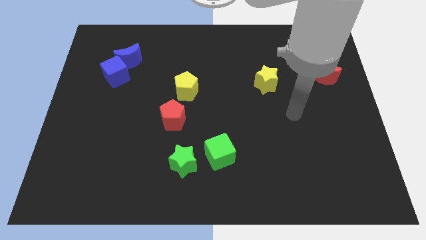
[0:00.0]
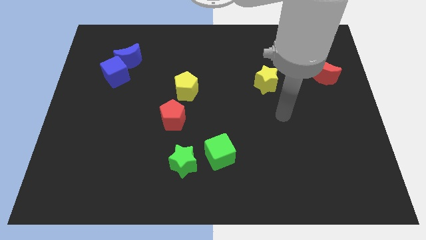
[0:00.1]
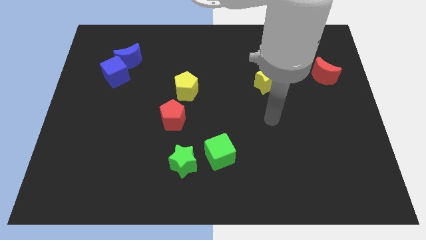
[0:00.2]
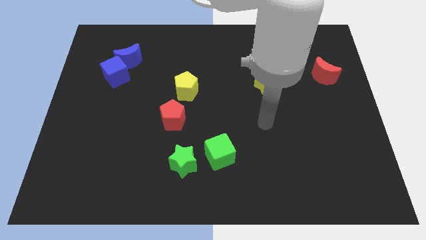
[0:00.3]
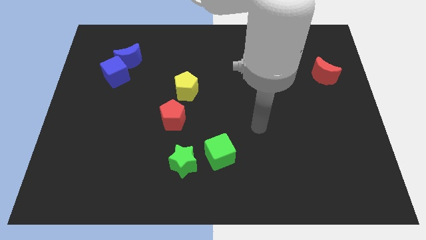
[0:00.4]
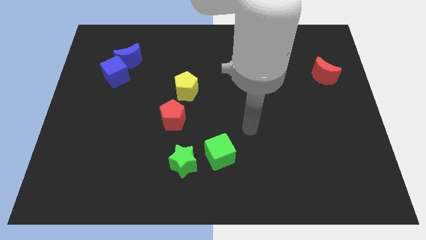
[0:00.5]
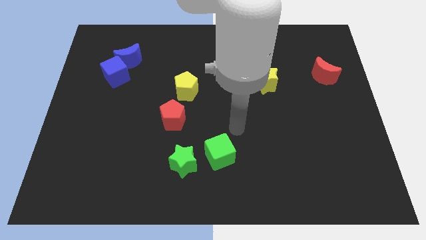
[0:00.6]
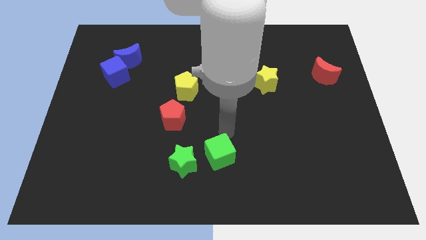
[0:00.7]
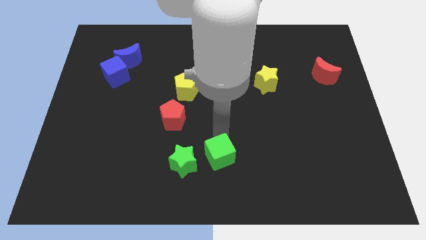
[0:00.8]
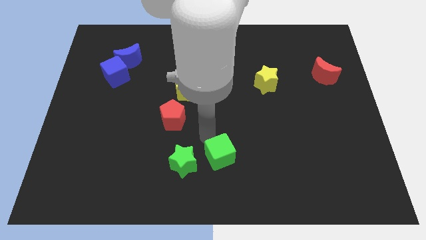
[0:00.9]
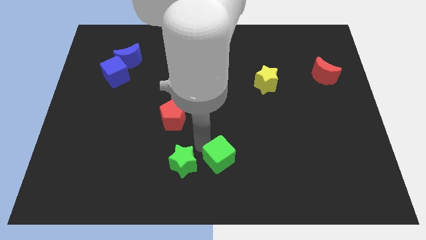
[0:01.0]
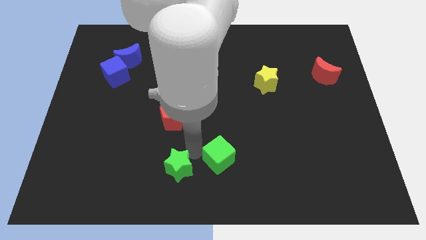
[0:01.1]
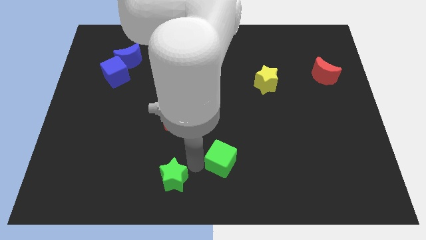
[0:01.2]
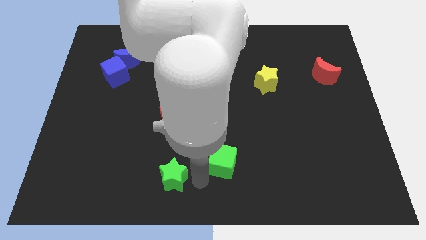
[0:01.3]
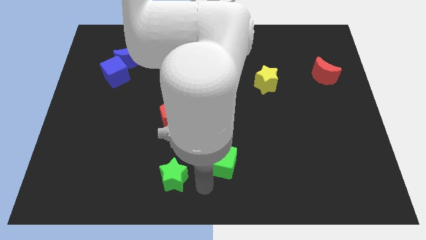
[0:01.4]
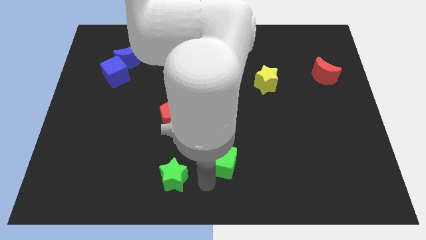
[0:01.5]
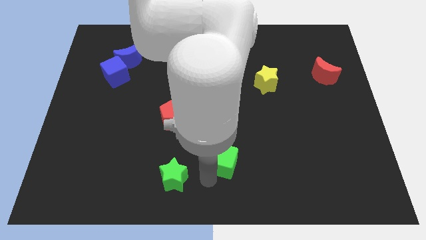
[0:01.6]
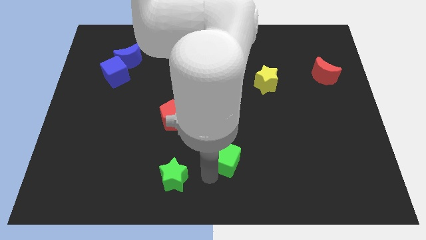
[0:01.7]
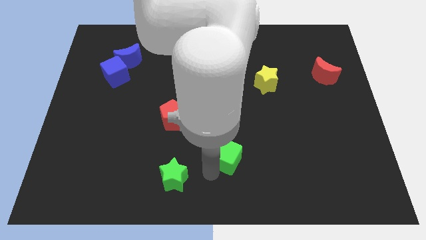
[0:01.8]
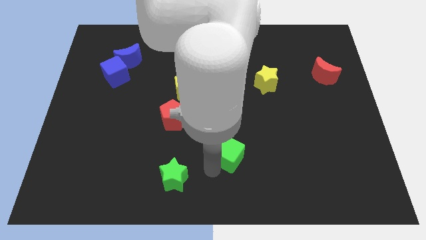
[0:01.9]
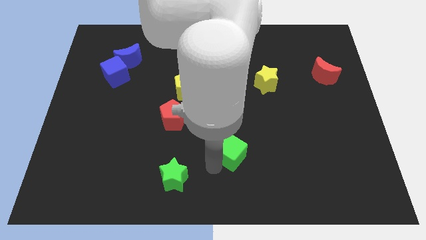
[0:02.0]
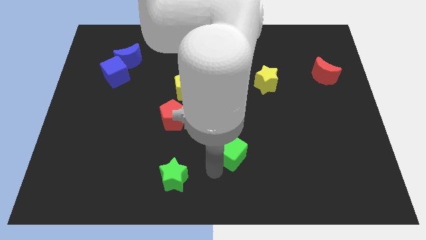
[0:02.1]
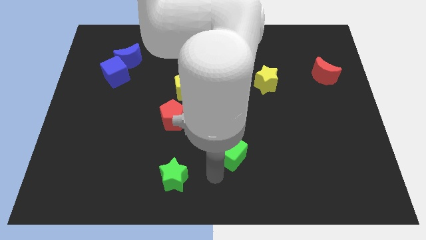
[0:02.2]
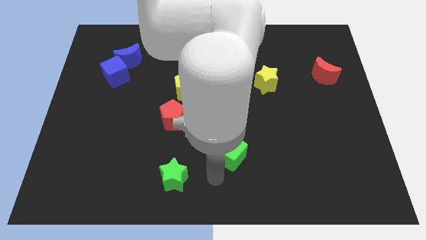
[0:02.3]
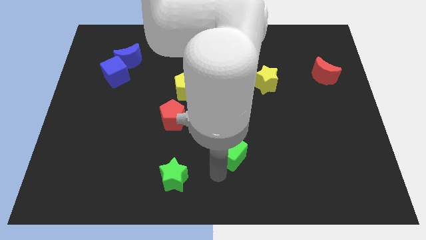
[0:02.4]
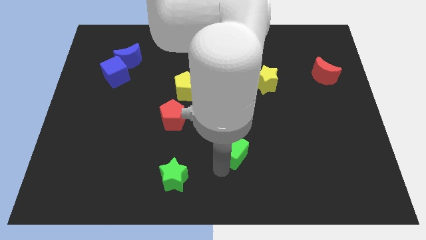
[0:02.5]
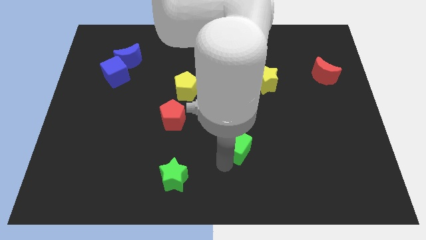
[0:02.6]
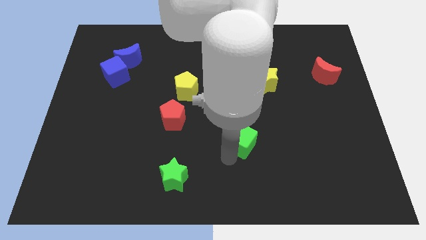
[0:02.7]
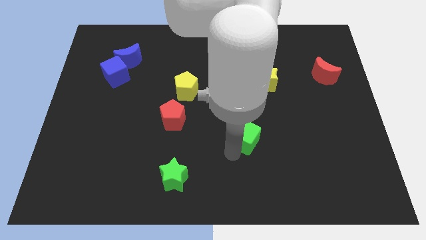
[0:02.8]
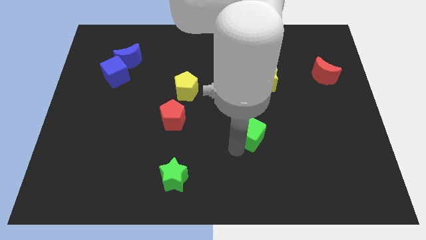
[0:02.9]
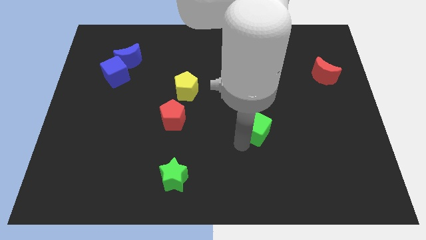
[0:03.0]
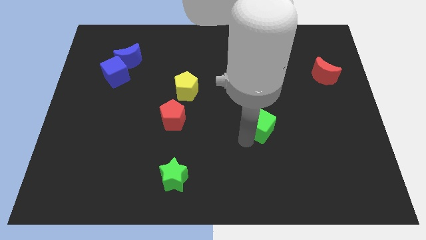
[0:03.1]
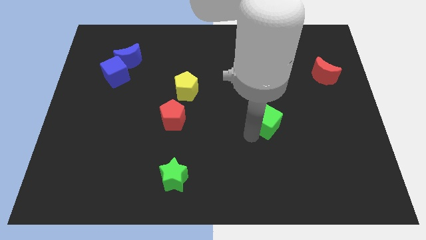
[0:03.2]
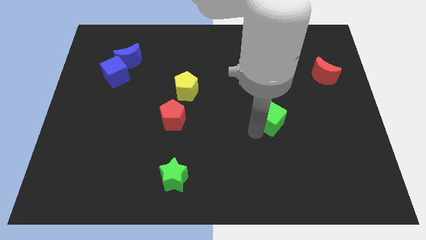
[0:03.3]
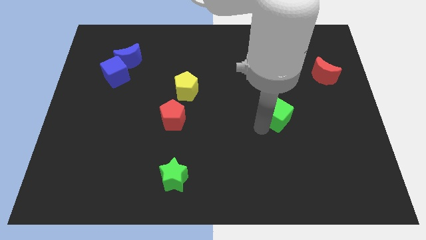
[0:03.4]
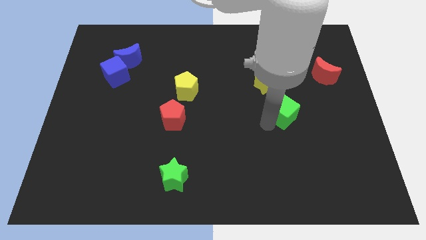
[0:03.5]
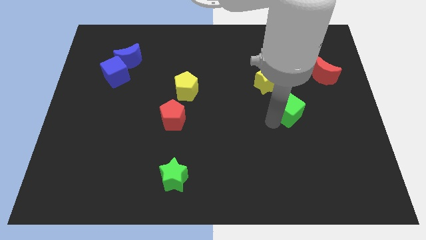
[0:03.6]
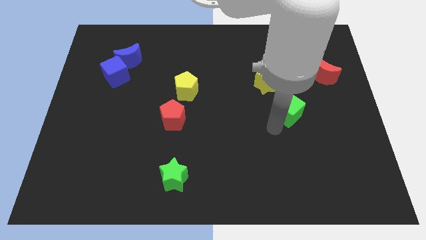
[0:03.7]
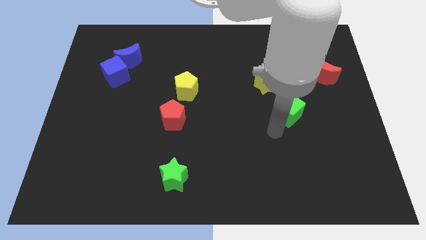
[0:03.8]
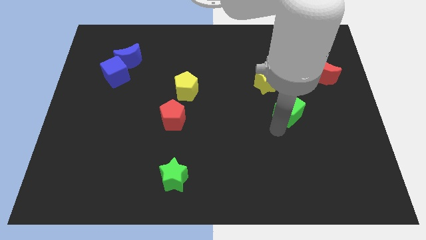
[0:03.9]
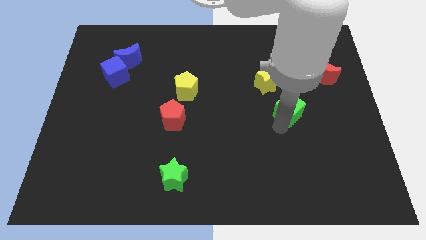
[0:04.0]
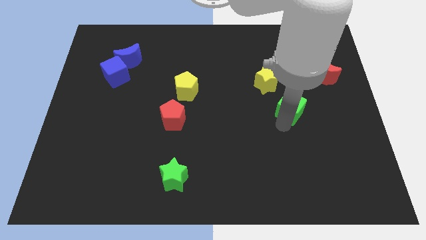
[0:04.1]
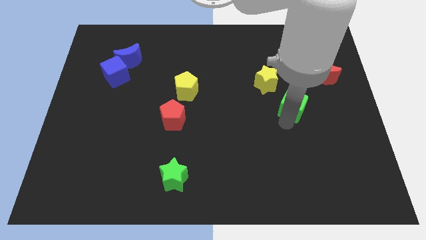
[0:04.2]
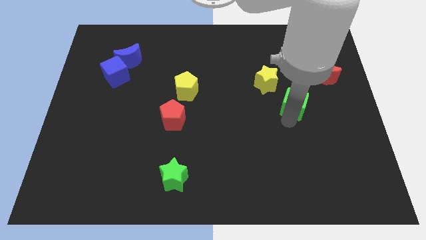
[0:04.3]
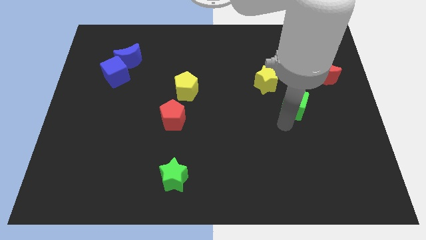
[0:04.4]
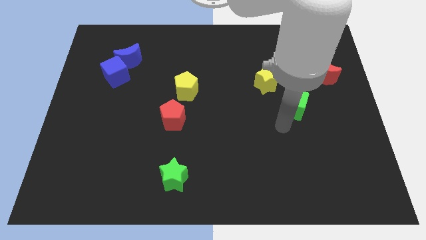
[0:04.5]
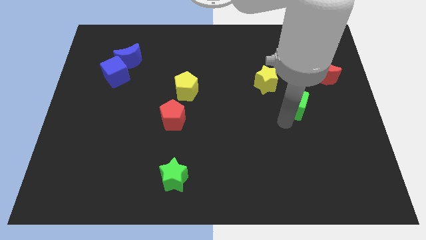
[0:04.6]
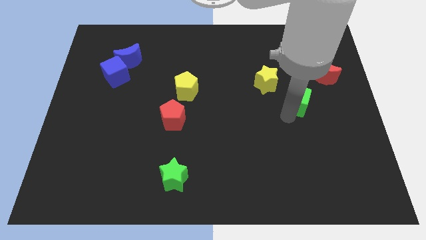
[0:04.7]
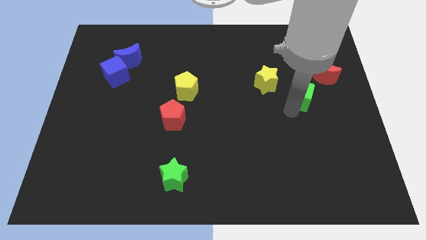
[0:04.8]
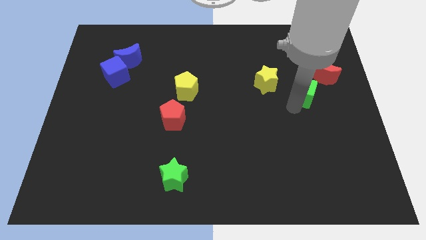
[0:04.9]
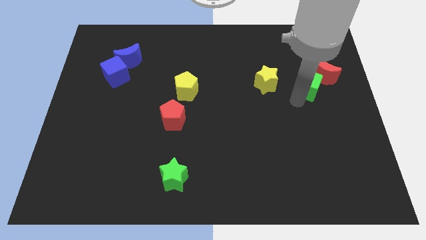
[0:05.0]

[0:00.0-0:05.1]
push the green cube next to the red moon

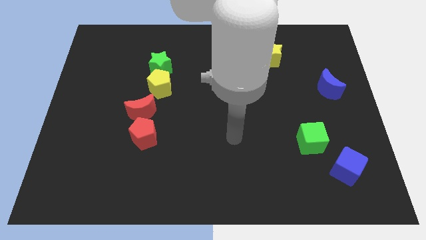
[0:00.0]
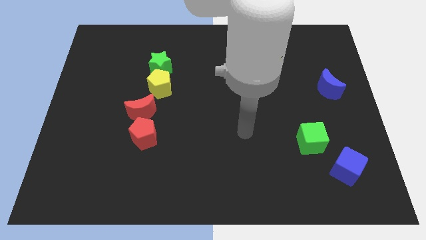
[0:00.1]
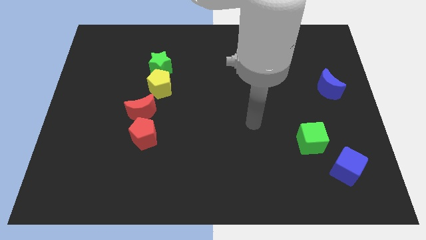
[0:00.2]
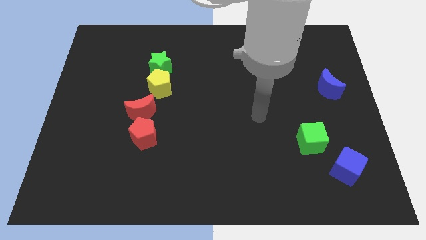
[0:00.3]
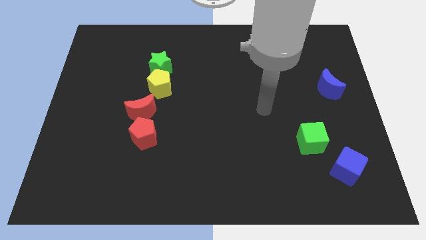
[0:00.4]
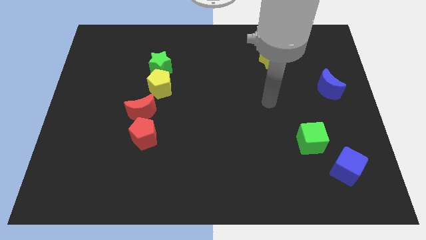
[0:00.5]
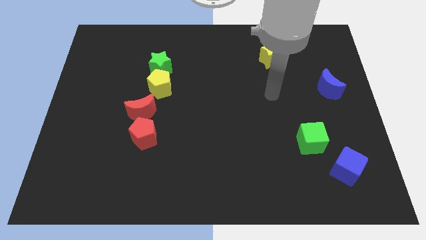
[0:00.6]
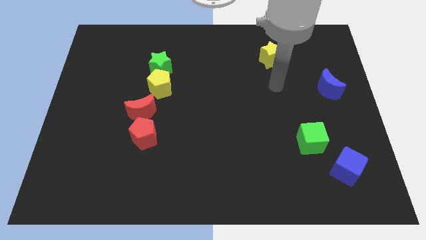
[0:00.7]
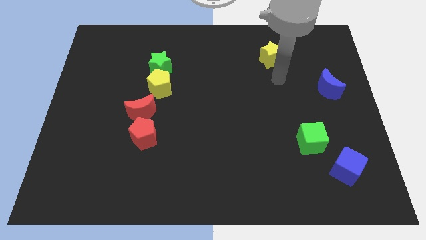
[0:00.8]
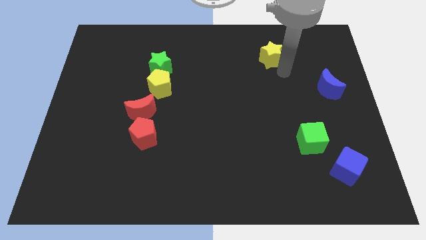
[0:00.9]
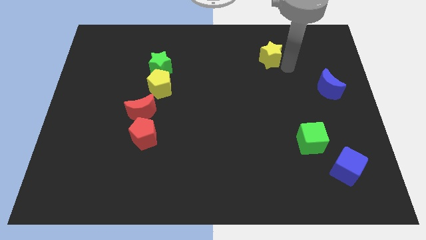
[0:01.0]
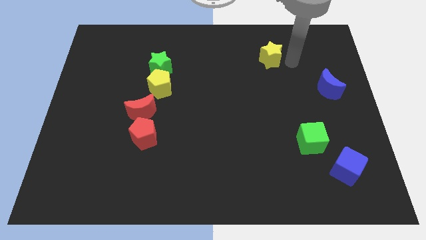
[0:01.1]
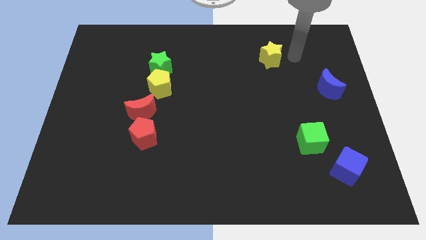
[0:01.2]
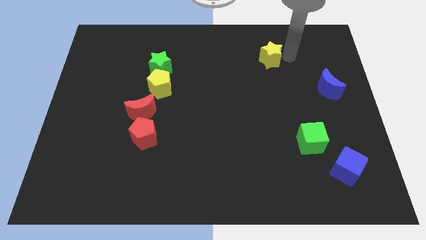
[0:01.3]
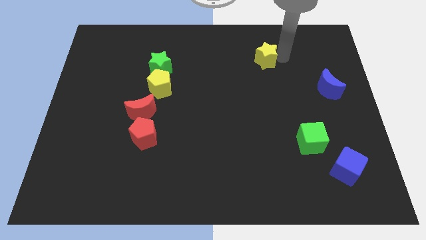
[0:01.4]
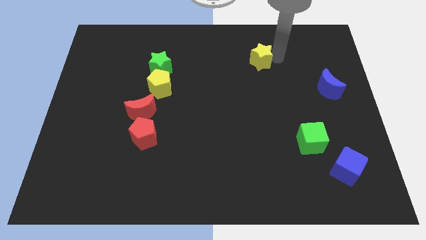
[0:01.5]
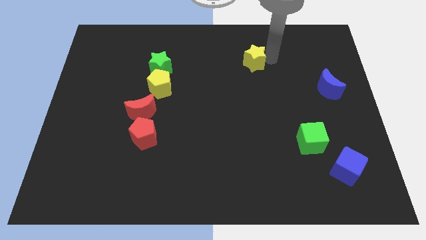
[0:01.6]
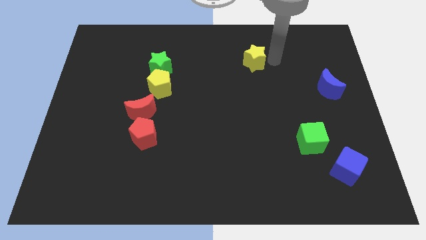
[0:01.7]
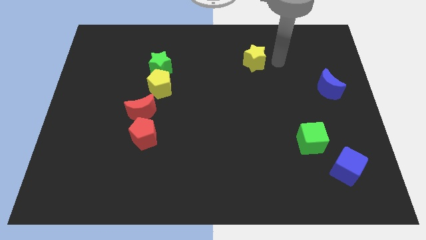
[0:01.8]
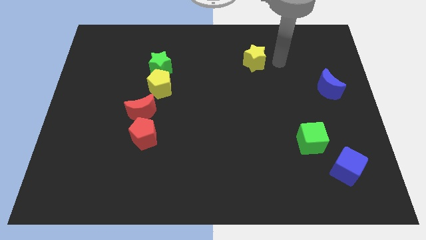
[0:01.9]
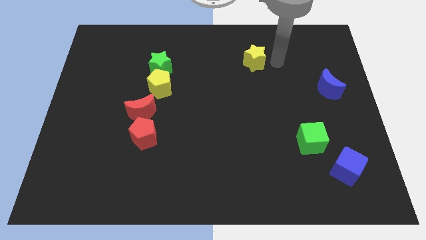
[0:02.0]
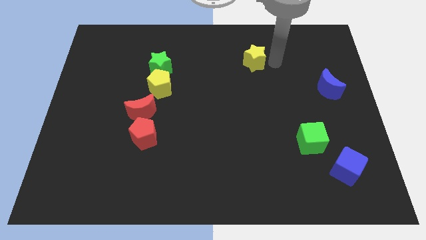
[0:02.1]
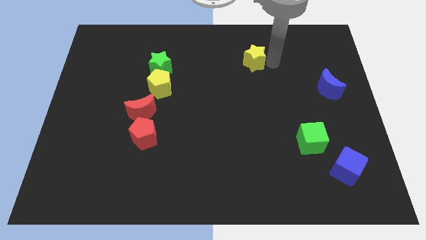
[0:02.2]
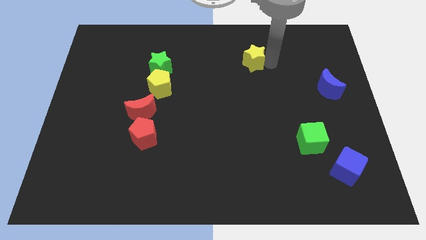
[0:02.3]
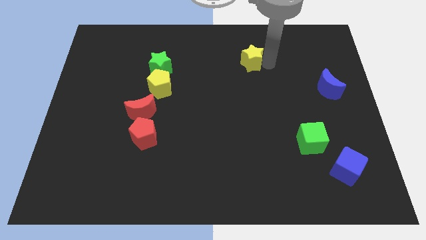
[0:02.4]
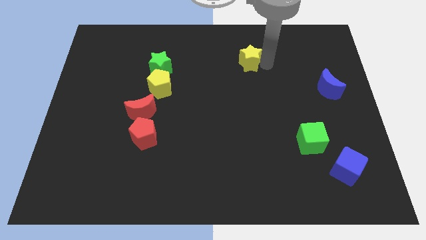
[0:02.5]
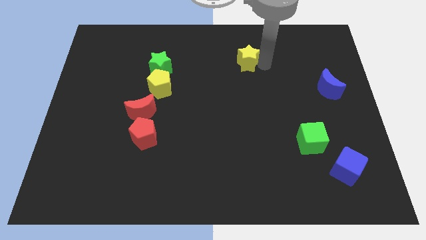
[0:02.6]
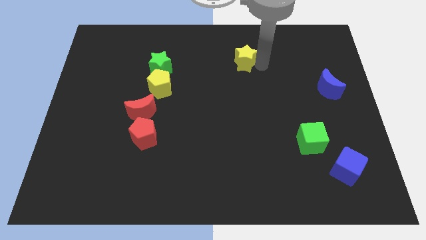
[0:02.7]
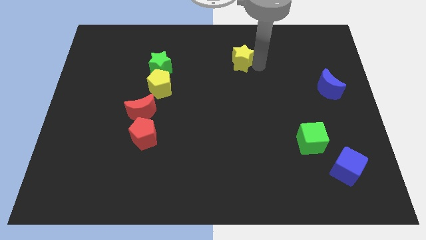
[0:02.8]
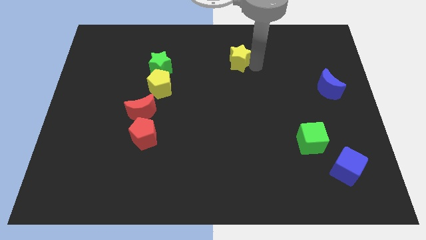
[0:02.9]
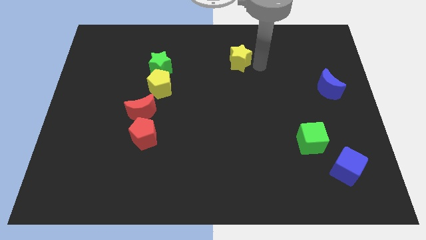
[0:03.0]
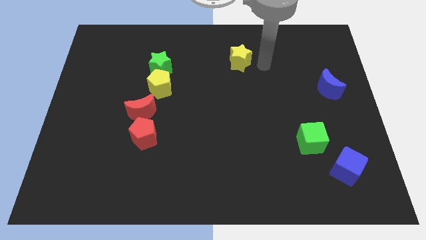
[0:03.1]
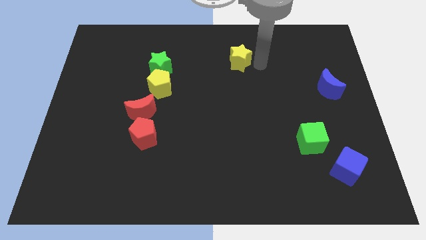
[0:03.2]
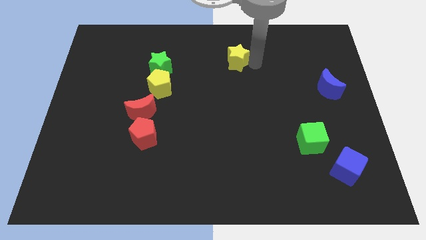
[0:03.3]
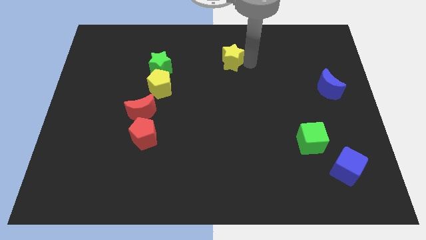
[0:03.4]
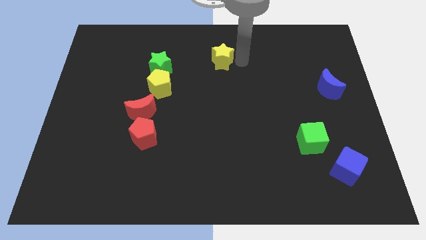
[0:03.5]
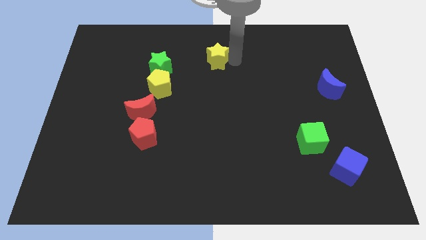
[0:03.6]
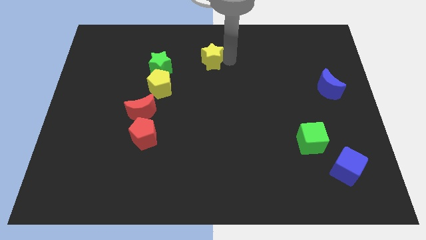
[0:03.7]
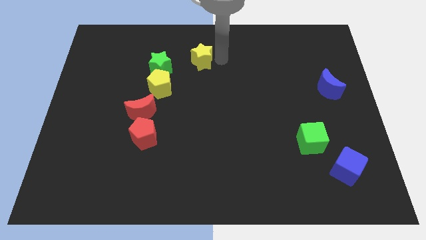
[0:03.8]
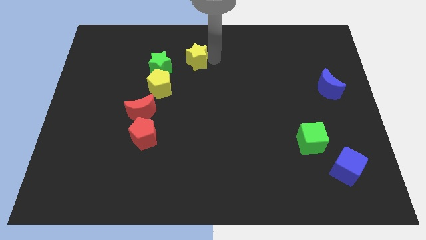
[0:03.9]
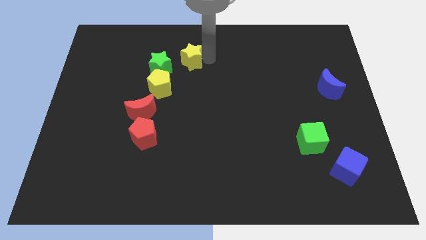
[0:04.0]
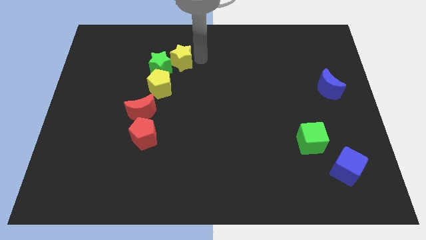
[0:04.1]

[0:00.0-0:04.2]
push the yellow star next to the green star
